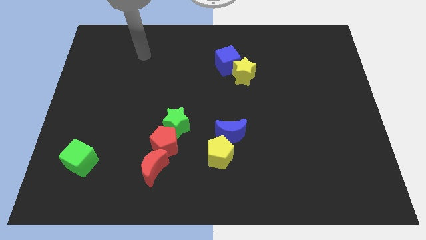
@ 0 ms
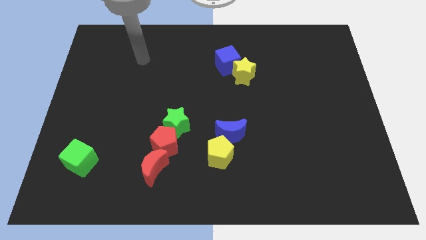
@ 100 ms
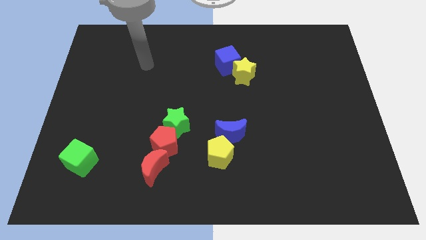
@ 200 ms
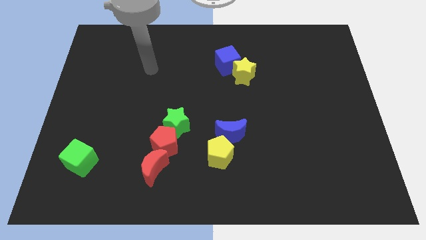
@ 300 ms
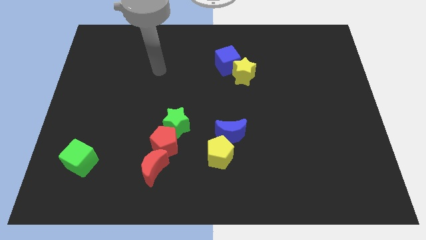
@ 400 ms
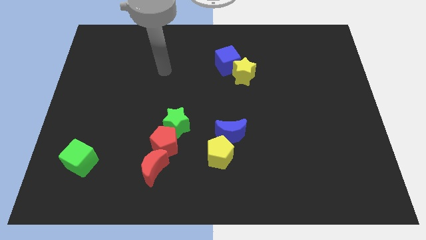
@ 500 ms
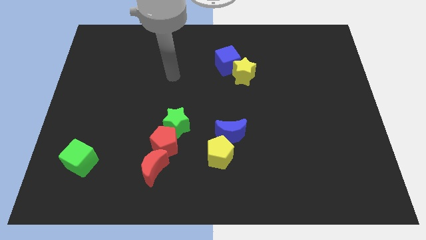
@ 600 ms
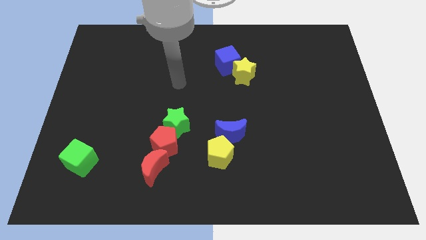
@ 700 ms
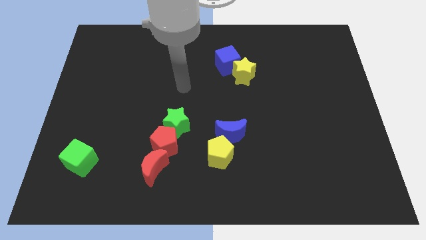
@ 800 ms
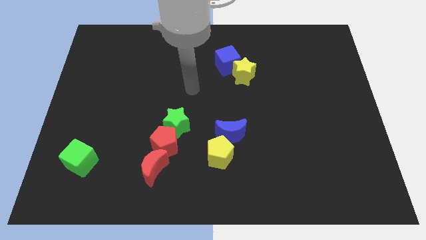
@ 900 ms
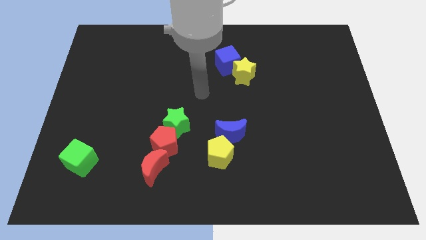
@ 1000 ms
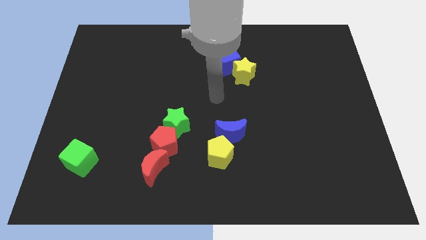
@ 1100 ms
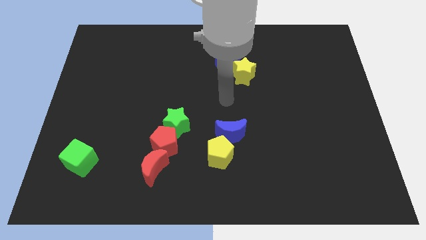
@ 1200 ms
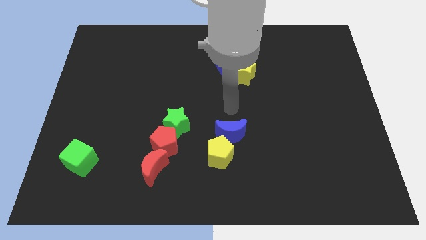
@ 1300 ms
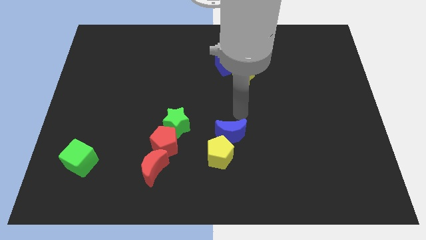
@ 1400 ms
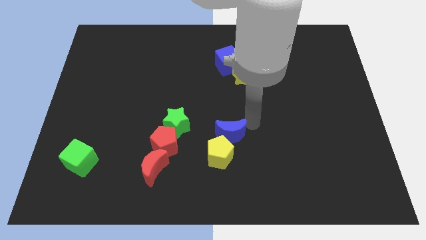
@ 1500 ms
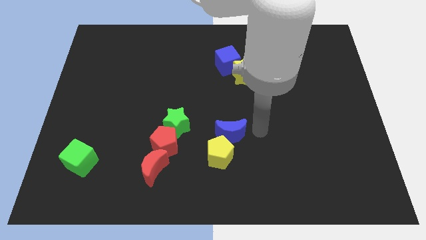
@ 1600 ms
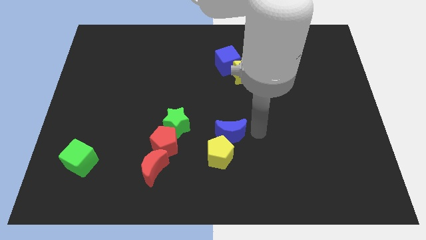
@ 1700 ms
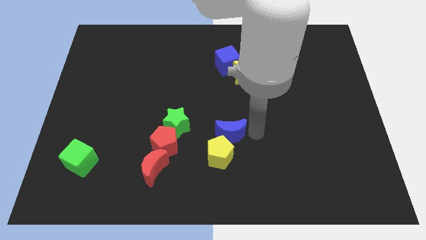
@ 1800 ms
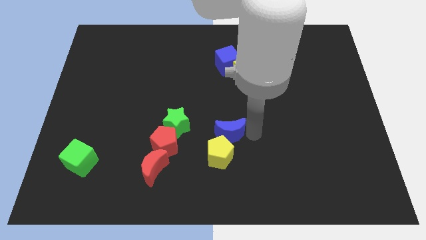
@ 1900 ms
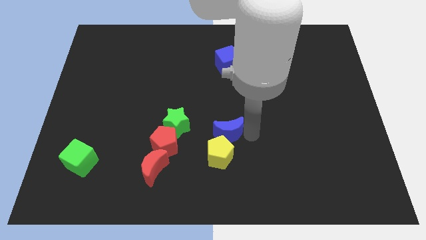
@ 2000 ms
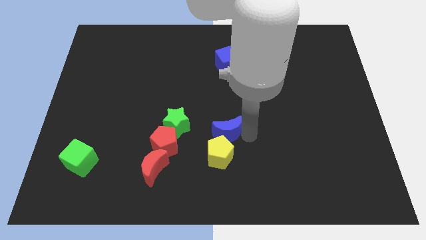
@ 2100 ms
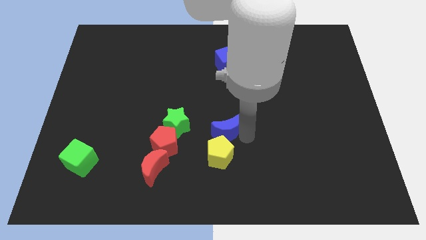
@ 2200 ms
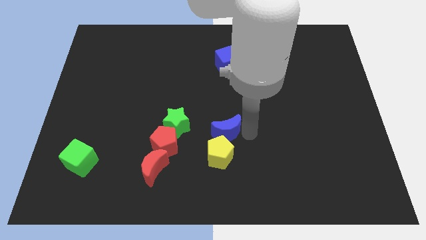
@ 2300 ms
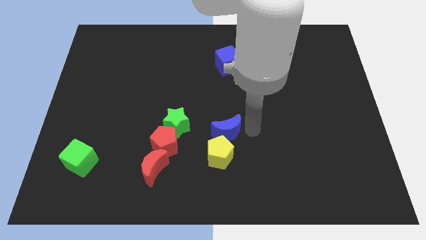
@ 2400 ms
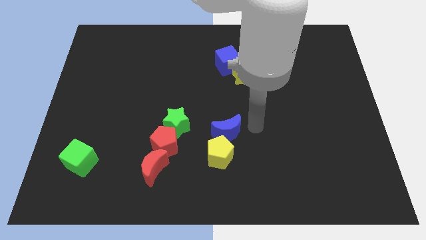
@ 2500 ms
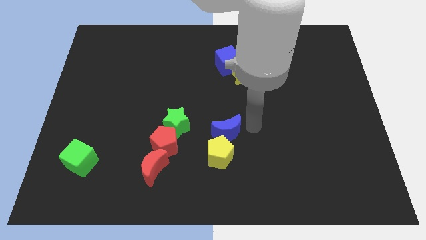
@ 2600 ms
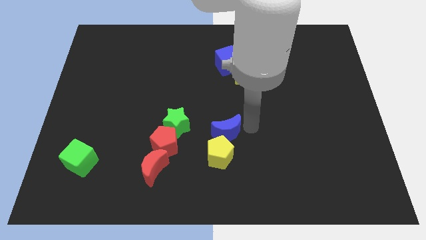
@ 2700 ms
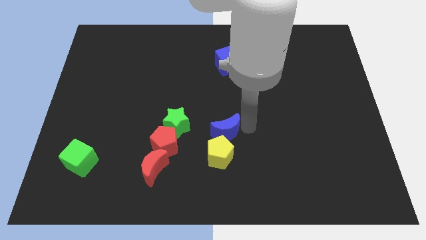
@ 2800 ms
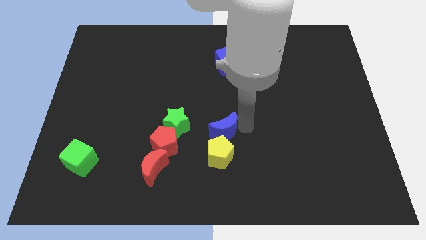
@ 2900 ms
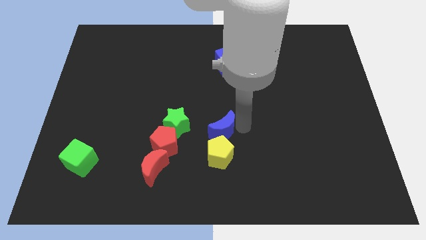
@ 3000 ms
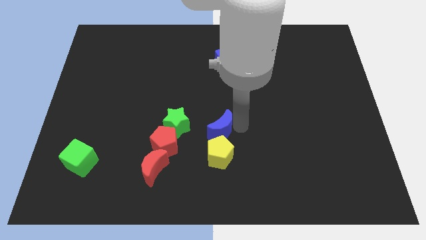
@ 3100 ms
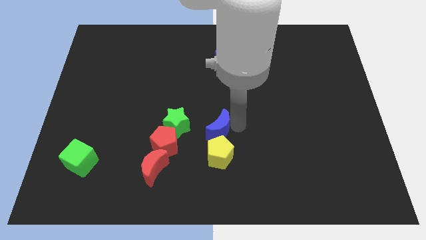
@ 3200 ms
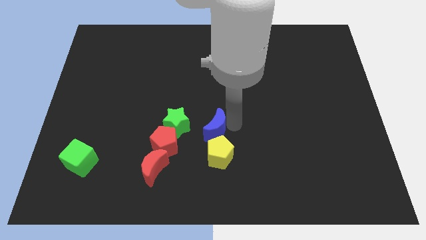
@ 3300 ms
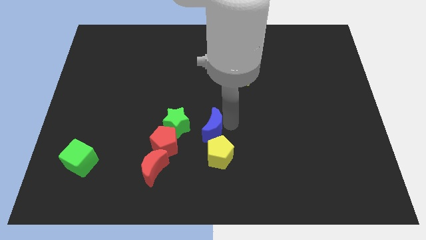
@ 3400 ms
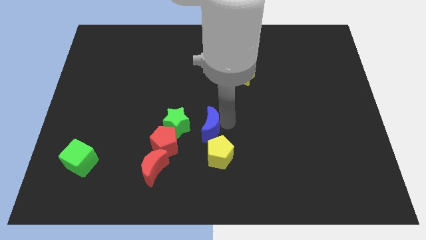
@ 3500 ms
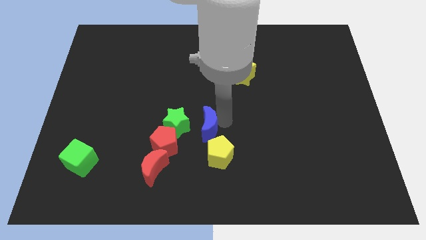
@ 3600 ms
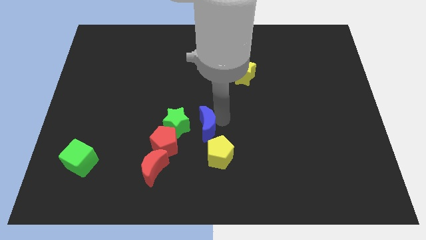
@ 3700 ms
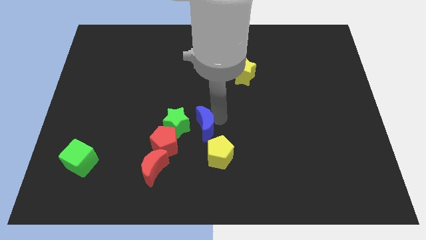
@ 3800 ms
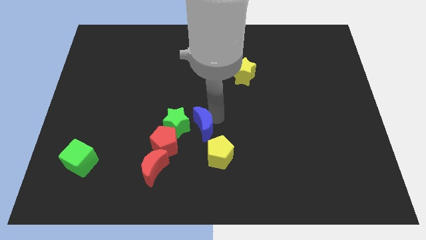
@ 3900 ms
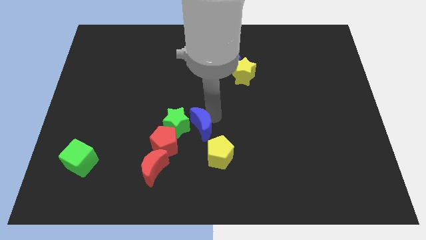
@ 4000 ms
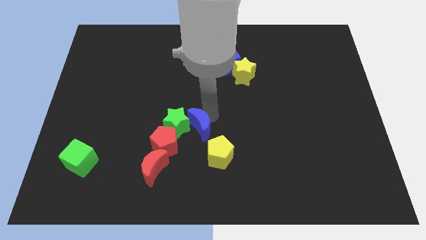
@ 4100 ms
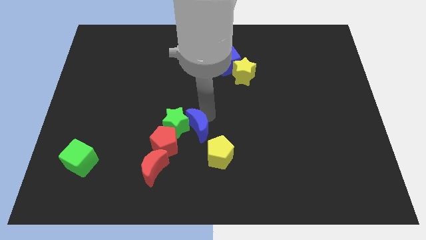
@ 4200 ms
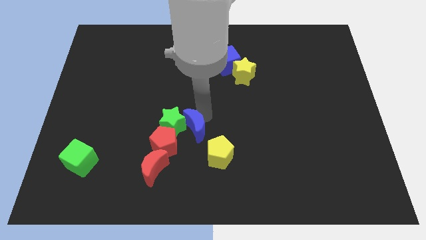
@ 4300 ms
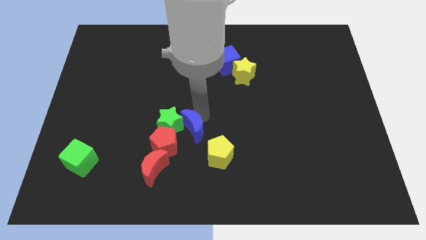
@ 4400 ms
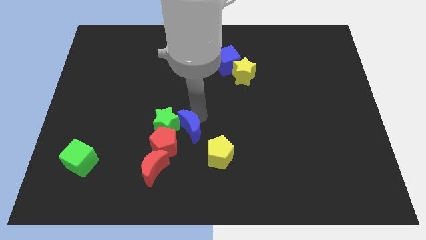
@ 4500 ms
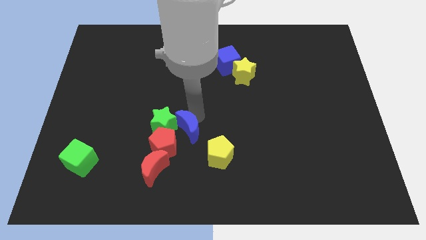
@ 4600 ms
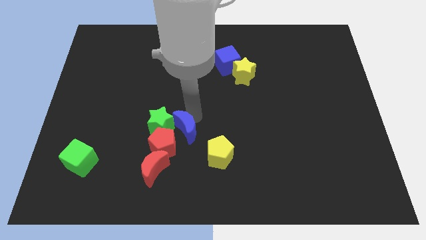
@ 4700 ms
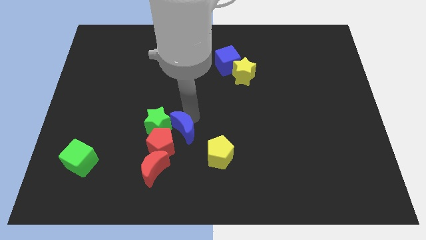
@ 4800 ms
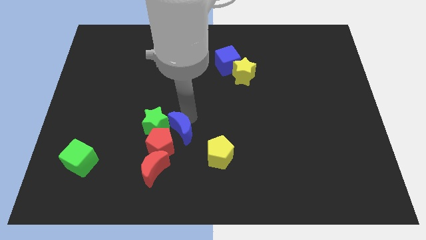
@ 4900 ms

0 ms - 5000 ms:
put the blue moon next to the red pentagon

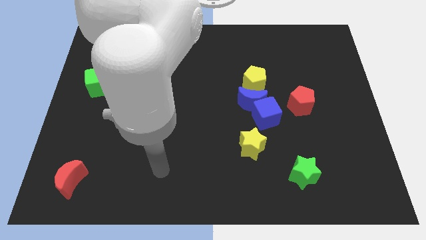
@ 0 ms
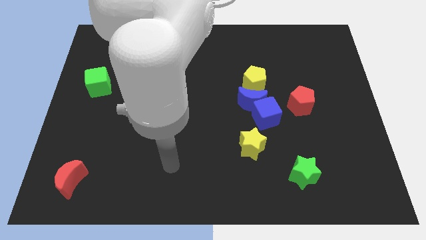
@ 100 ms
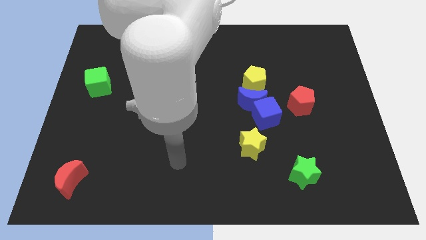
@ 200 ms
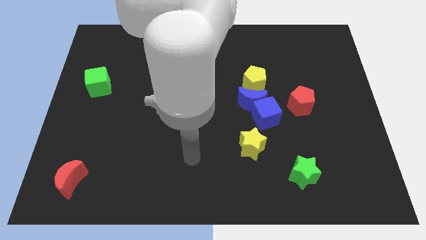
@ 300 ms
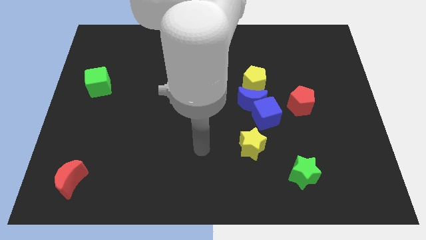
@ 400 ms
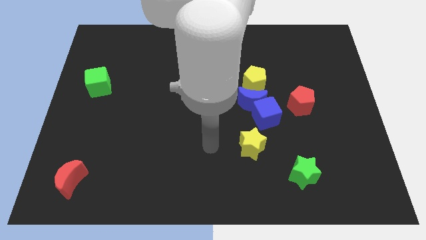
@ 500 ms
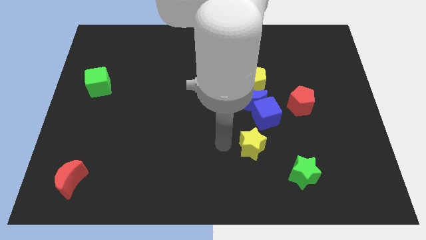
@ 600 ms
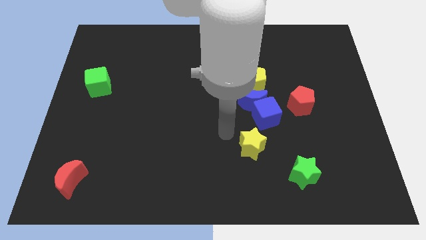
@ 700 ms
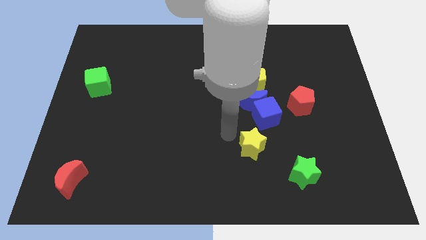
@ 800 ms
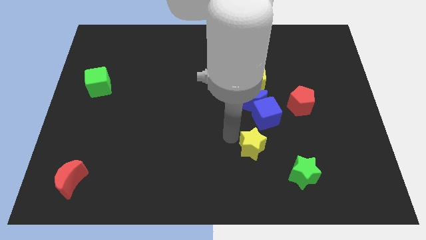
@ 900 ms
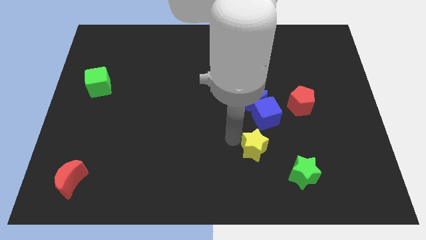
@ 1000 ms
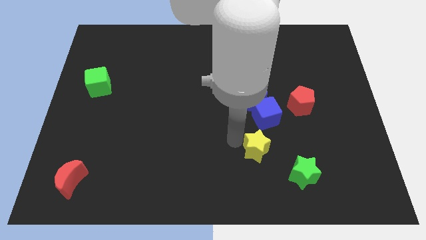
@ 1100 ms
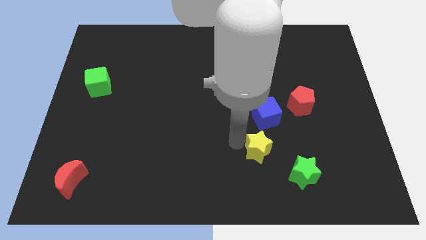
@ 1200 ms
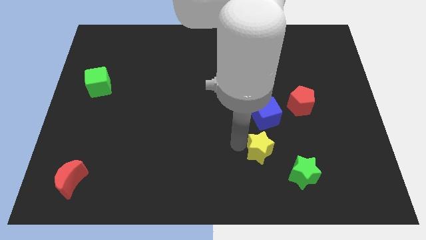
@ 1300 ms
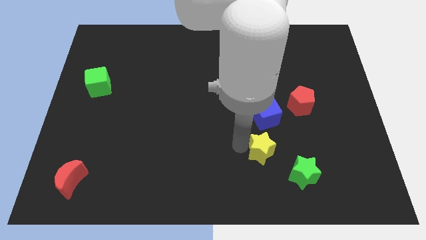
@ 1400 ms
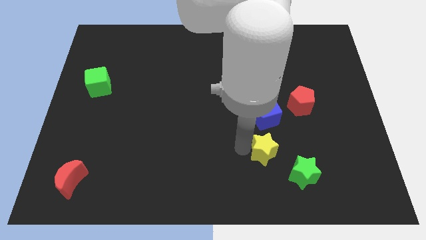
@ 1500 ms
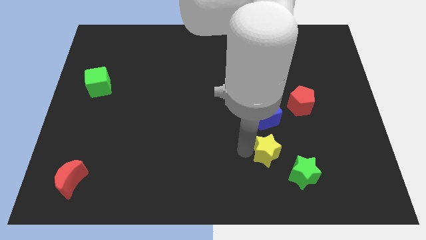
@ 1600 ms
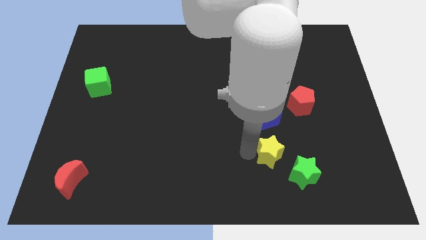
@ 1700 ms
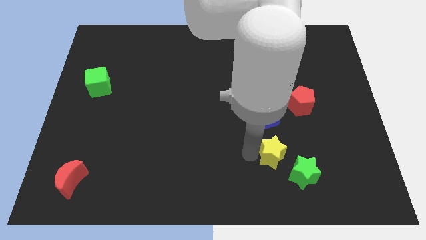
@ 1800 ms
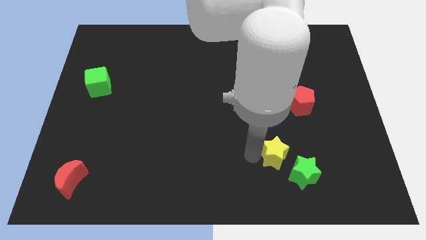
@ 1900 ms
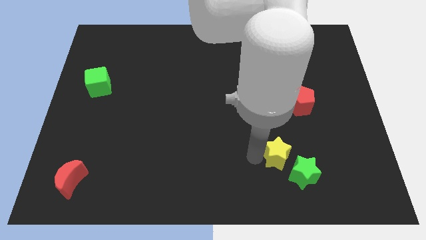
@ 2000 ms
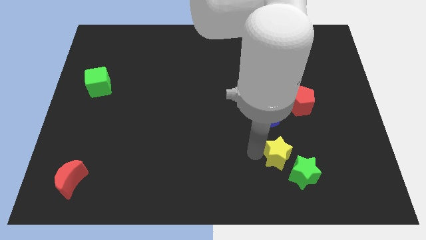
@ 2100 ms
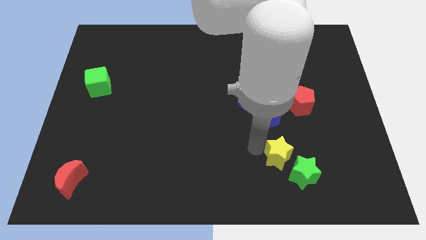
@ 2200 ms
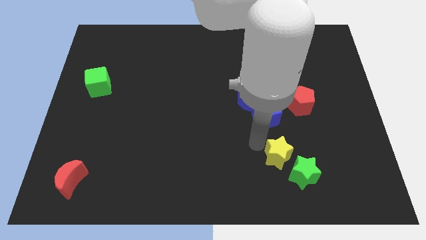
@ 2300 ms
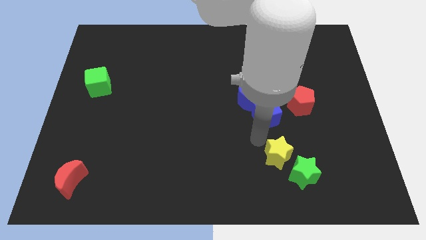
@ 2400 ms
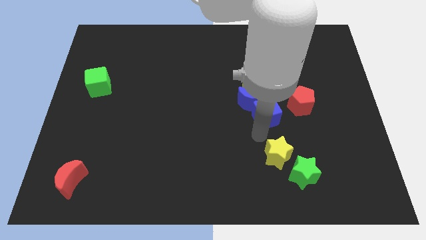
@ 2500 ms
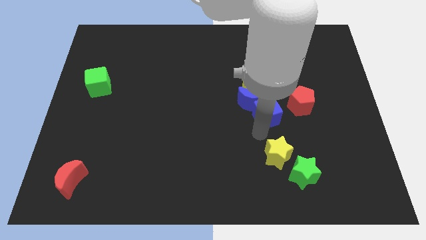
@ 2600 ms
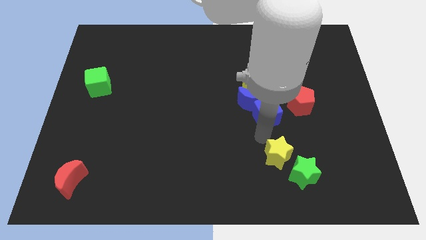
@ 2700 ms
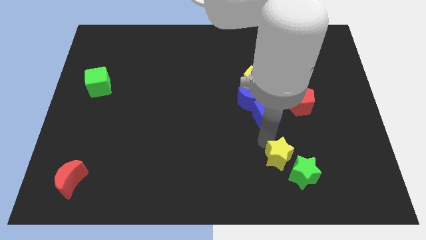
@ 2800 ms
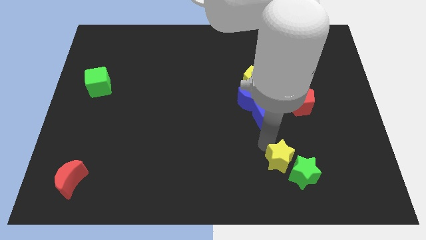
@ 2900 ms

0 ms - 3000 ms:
move the yellow star to the green star

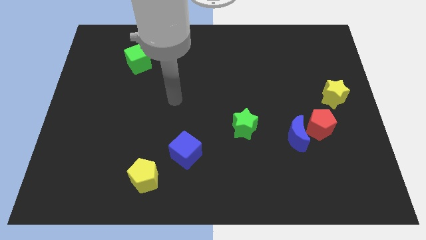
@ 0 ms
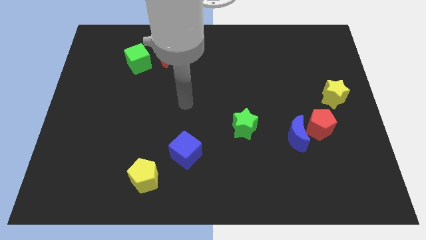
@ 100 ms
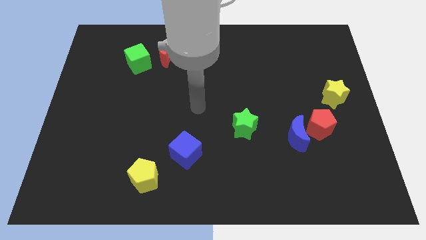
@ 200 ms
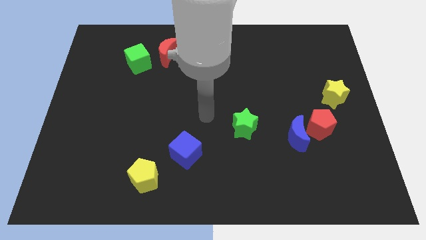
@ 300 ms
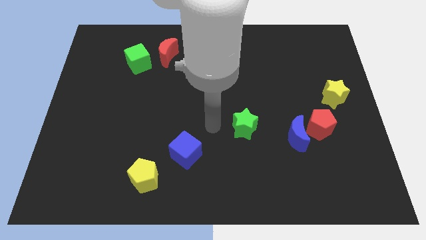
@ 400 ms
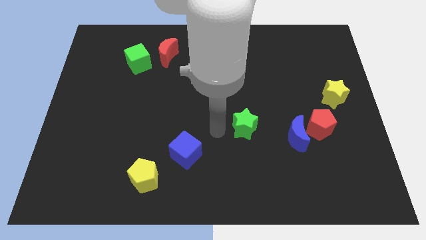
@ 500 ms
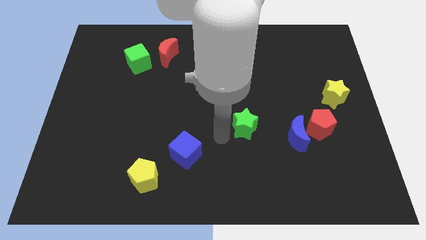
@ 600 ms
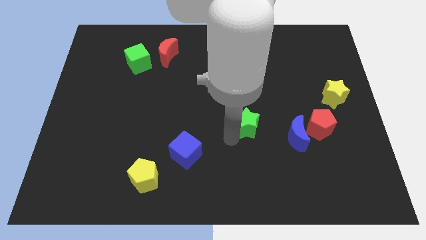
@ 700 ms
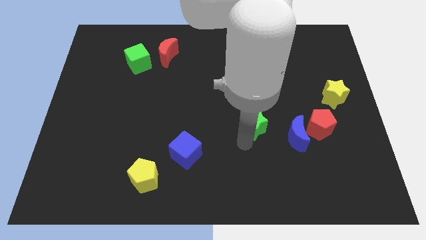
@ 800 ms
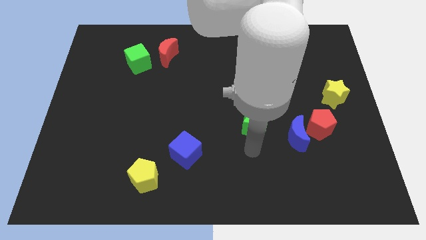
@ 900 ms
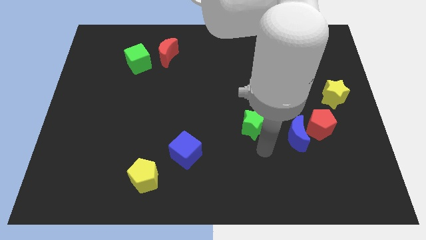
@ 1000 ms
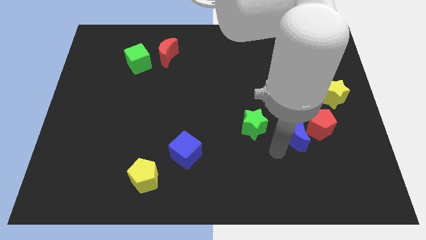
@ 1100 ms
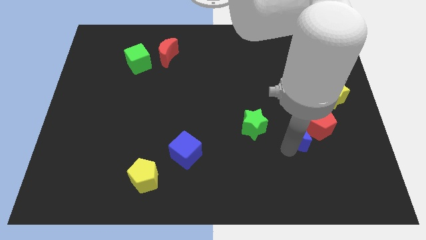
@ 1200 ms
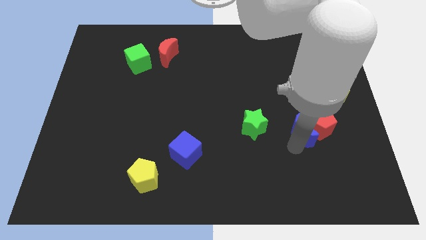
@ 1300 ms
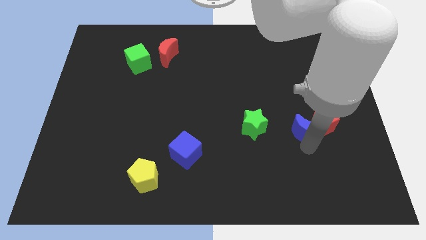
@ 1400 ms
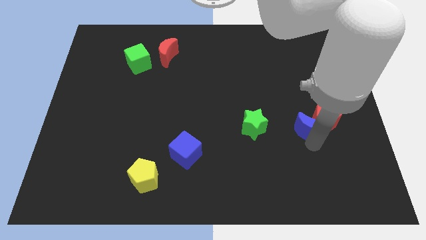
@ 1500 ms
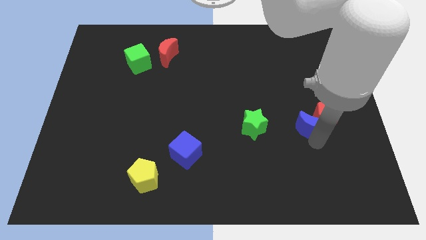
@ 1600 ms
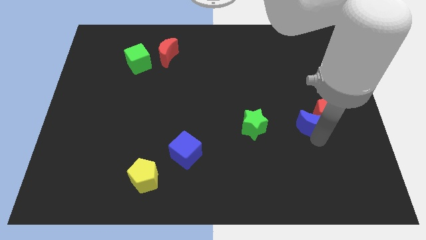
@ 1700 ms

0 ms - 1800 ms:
slide the red pentagon towards the yellow star
